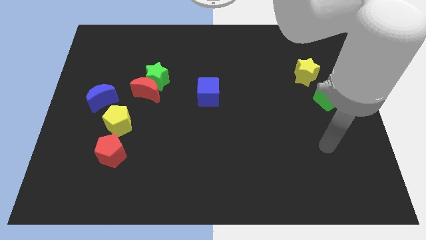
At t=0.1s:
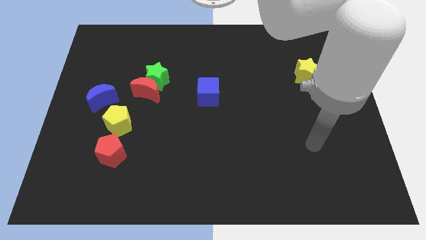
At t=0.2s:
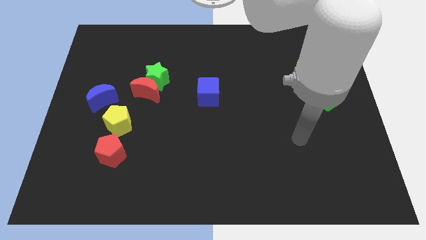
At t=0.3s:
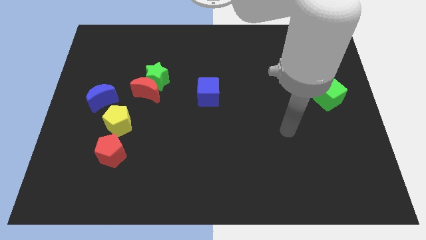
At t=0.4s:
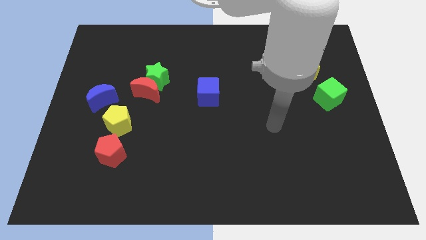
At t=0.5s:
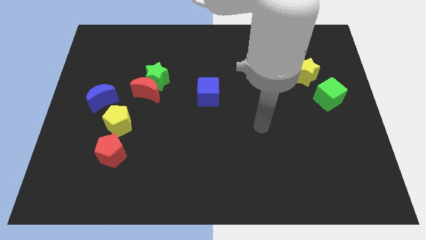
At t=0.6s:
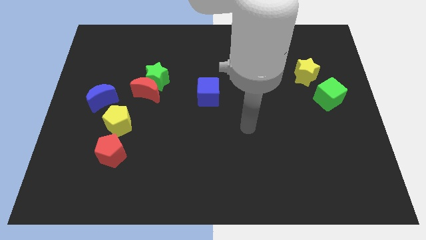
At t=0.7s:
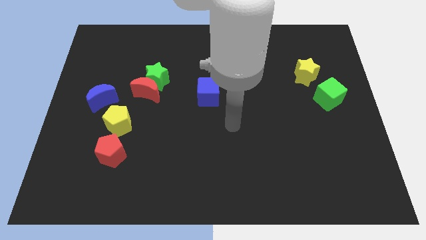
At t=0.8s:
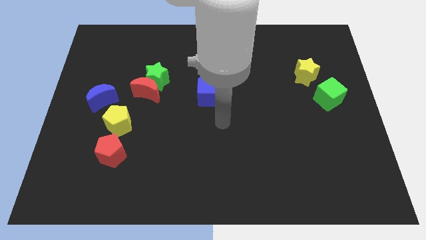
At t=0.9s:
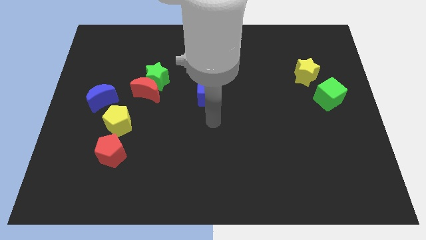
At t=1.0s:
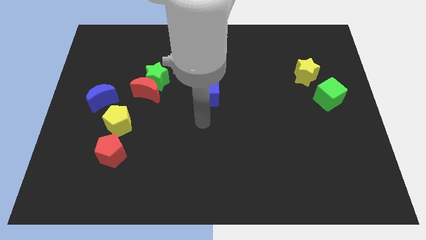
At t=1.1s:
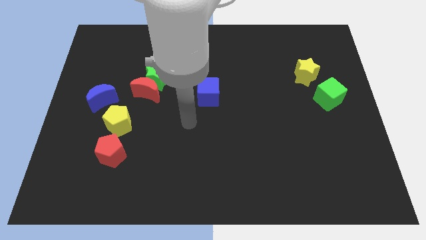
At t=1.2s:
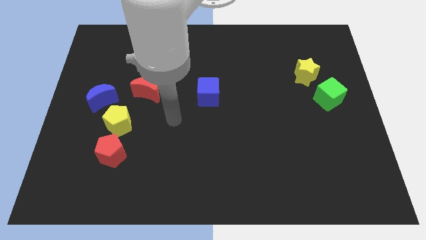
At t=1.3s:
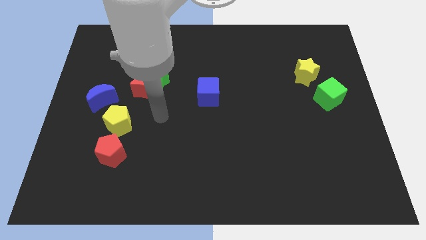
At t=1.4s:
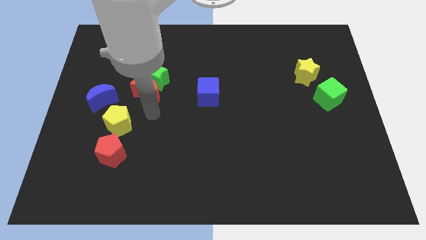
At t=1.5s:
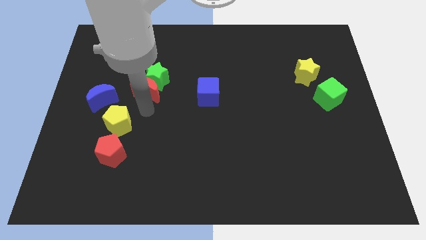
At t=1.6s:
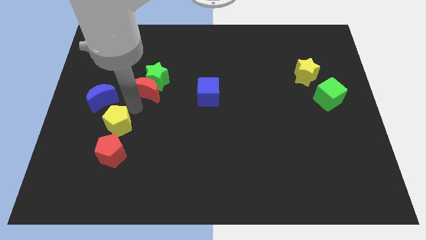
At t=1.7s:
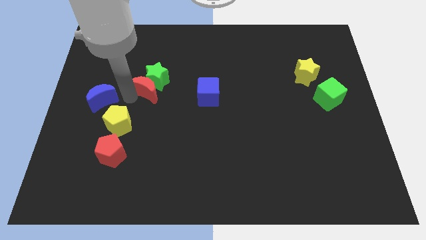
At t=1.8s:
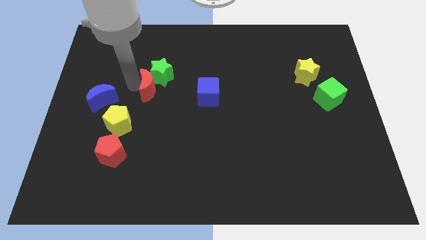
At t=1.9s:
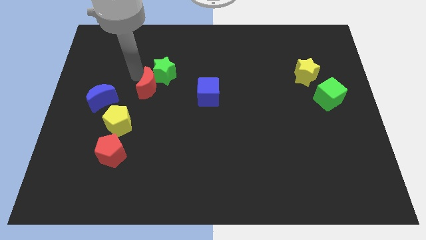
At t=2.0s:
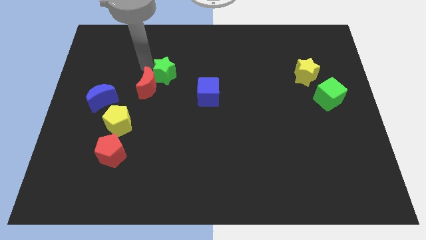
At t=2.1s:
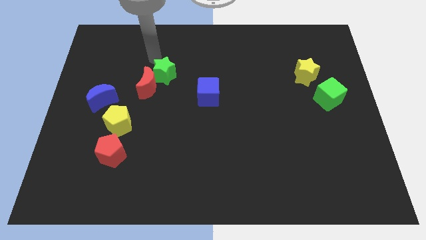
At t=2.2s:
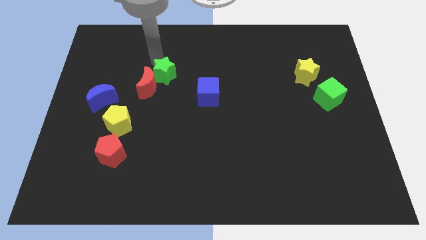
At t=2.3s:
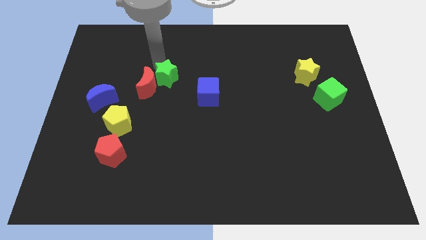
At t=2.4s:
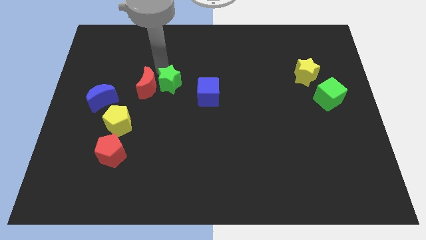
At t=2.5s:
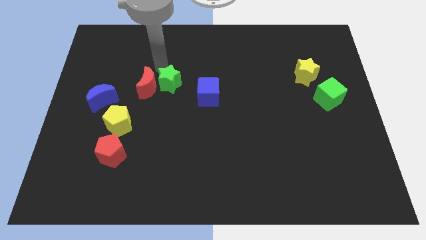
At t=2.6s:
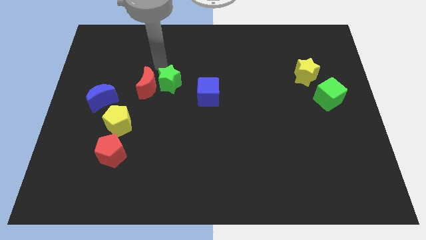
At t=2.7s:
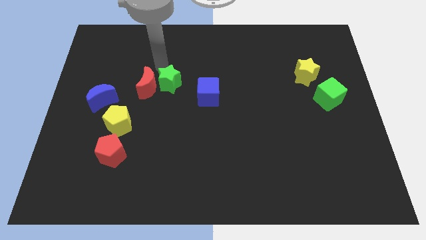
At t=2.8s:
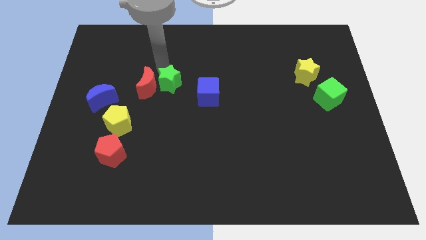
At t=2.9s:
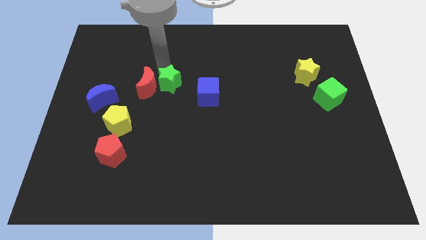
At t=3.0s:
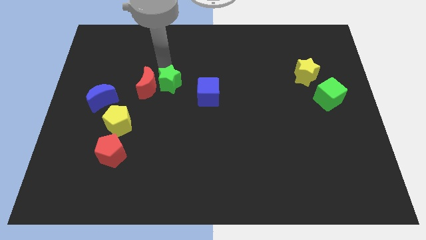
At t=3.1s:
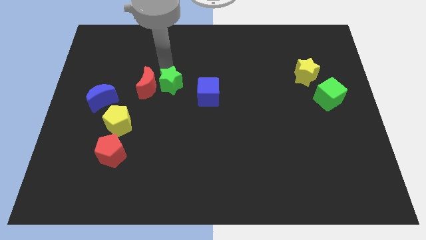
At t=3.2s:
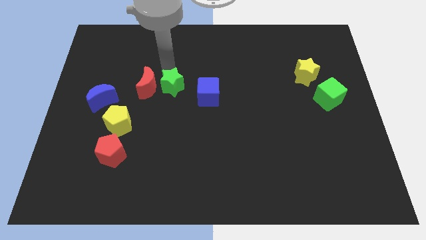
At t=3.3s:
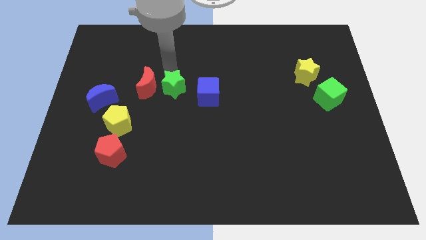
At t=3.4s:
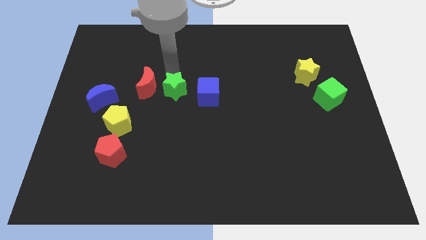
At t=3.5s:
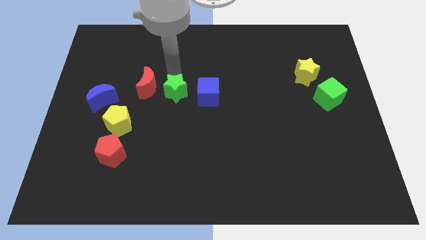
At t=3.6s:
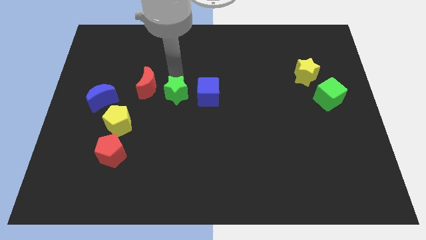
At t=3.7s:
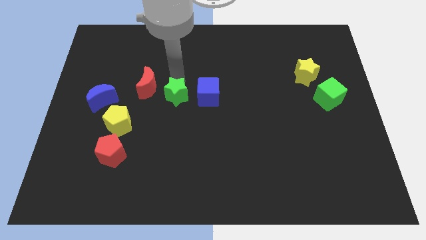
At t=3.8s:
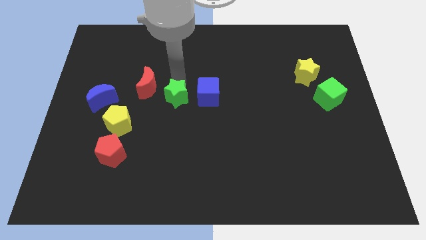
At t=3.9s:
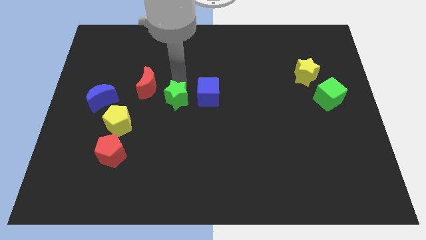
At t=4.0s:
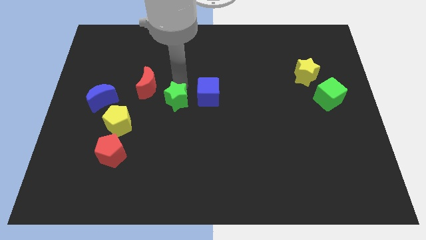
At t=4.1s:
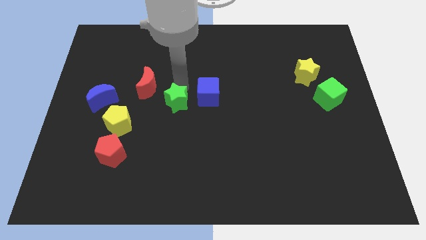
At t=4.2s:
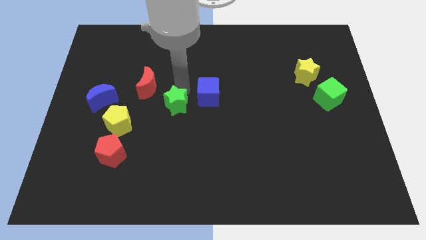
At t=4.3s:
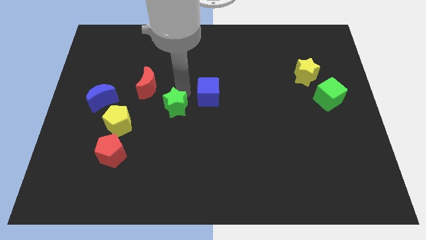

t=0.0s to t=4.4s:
push the green star a bit downwards

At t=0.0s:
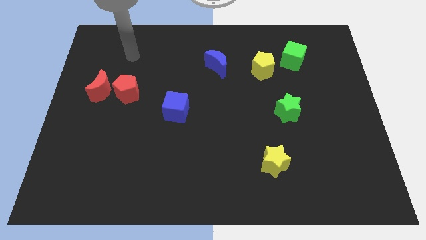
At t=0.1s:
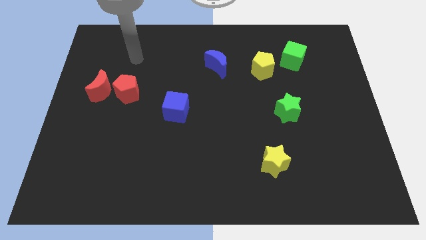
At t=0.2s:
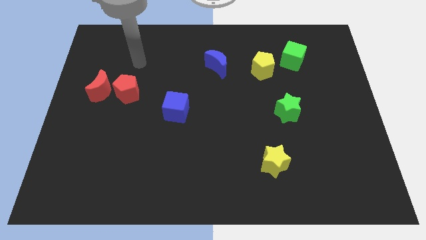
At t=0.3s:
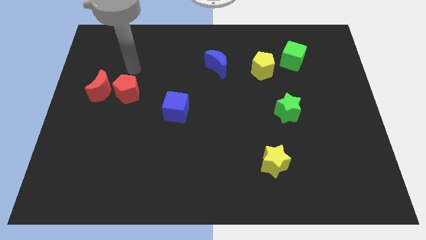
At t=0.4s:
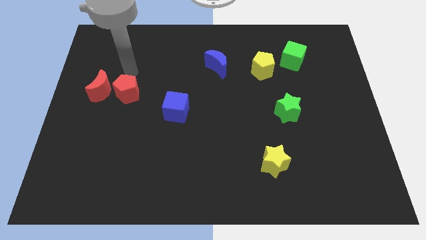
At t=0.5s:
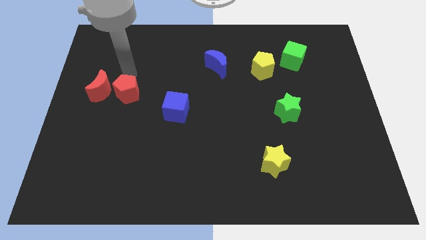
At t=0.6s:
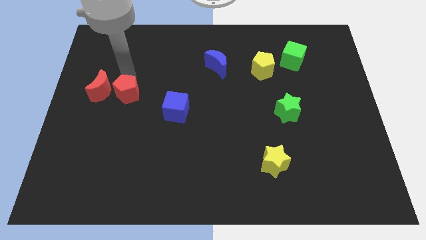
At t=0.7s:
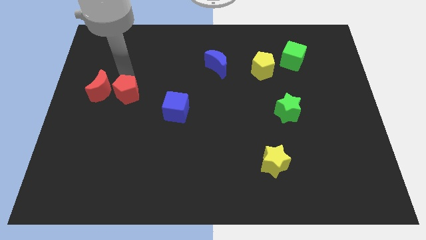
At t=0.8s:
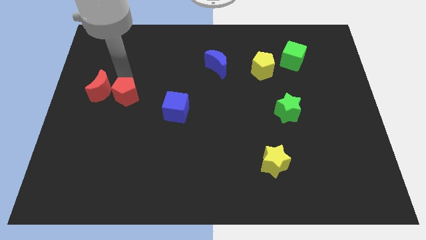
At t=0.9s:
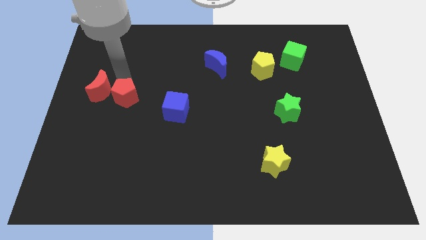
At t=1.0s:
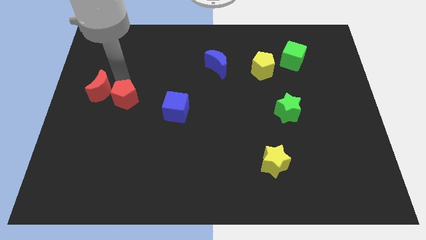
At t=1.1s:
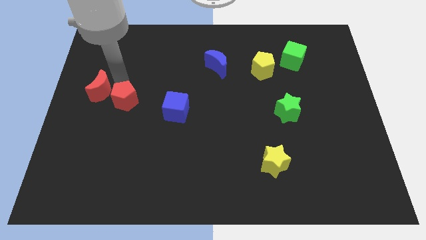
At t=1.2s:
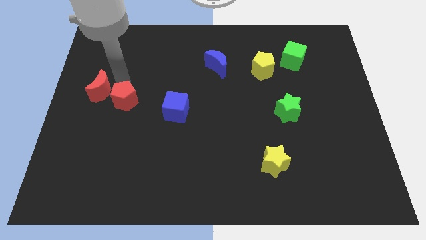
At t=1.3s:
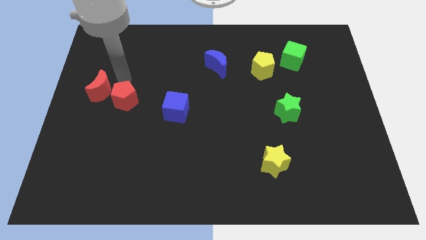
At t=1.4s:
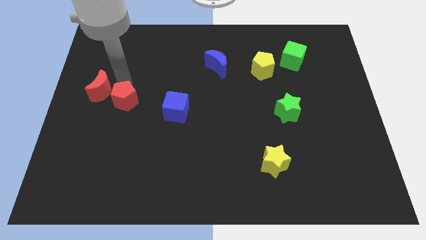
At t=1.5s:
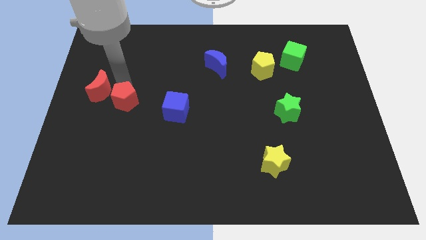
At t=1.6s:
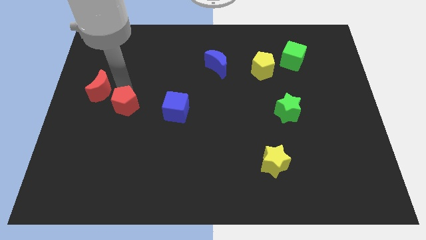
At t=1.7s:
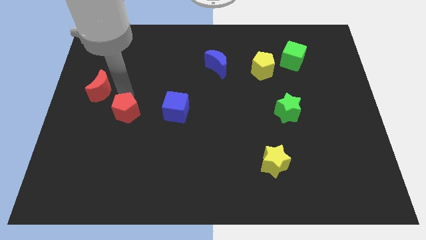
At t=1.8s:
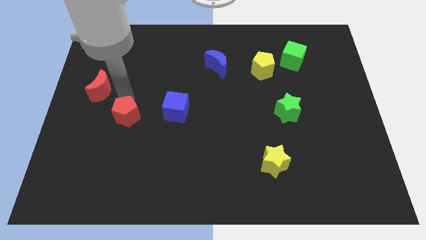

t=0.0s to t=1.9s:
move the red pentagon somewhat down

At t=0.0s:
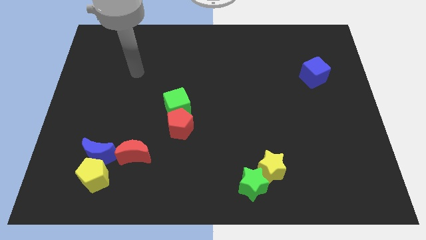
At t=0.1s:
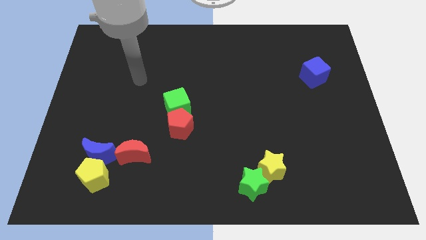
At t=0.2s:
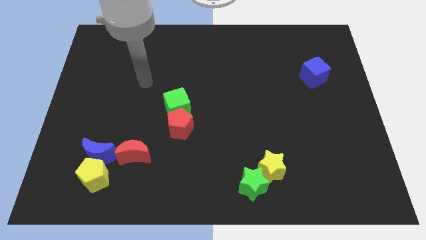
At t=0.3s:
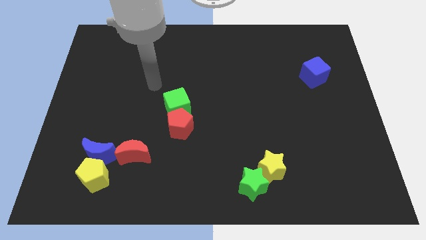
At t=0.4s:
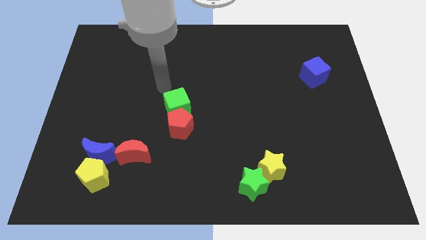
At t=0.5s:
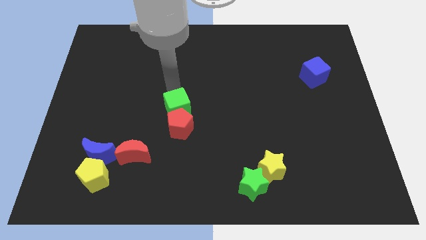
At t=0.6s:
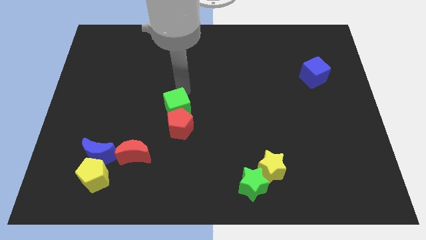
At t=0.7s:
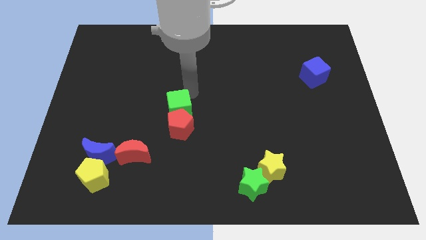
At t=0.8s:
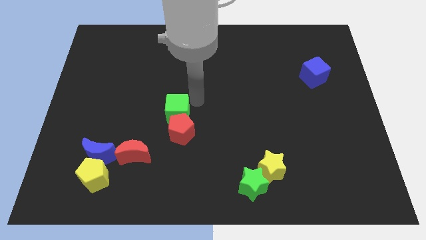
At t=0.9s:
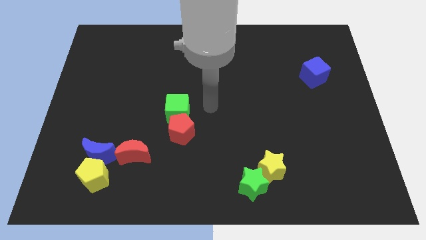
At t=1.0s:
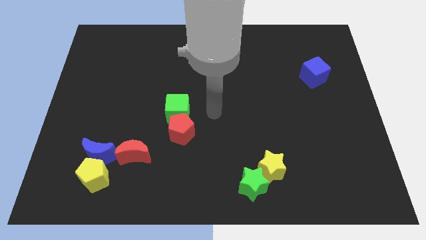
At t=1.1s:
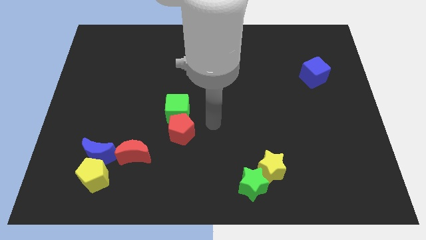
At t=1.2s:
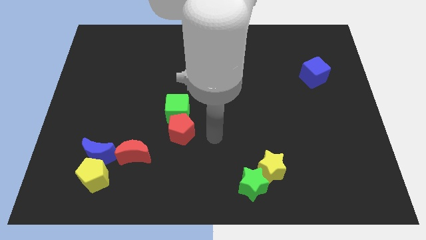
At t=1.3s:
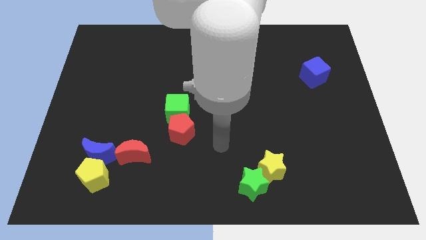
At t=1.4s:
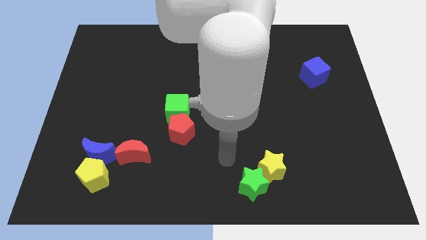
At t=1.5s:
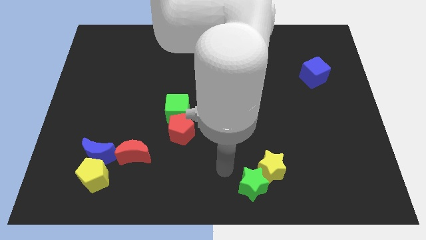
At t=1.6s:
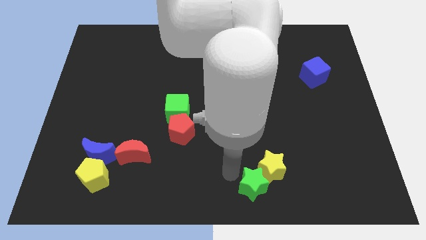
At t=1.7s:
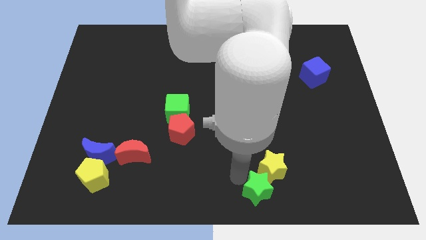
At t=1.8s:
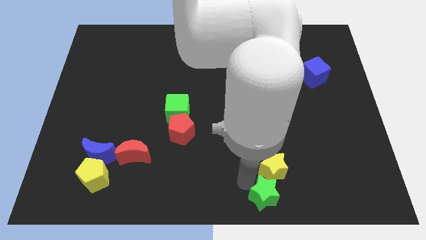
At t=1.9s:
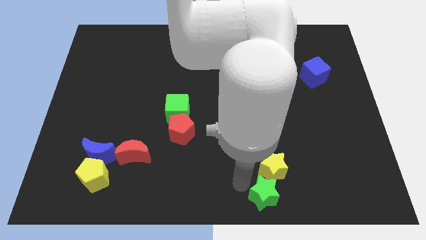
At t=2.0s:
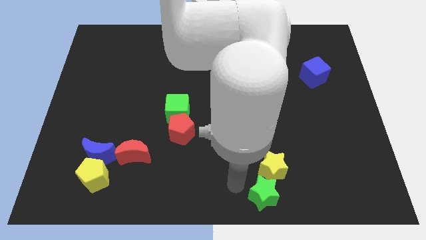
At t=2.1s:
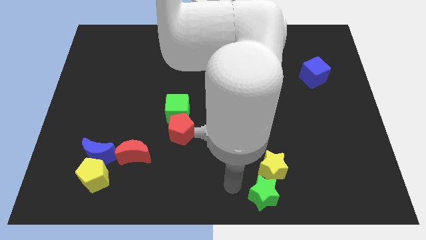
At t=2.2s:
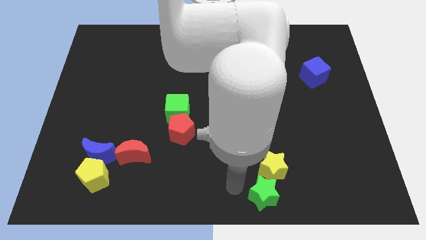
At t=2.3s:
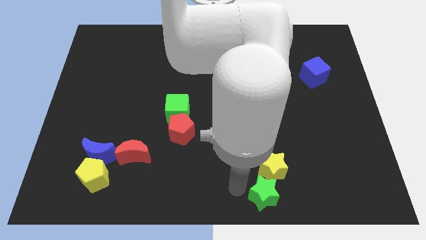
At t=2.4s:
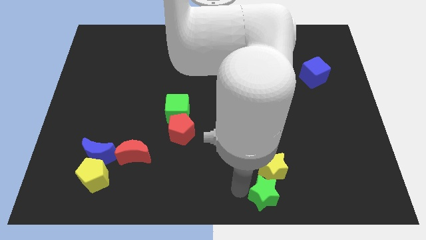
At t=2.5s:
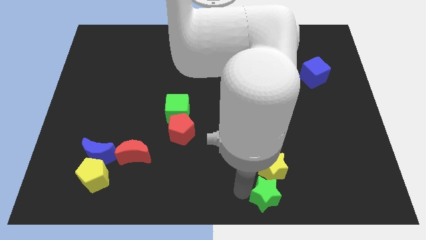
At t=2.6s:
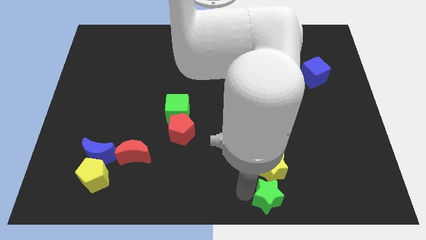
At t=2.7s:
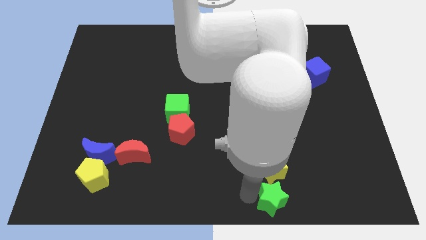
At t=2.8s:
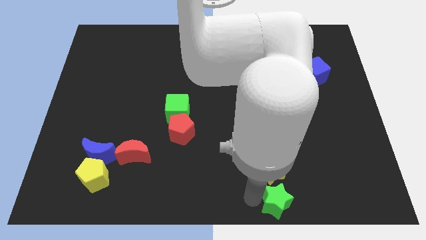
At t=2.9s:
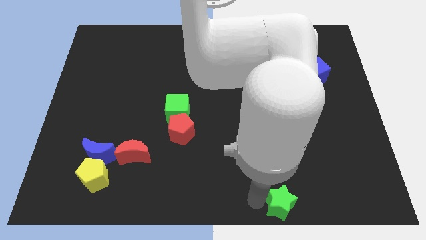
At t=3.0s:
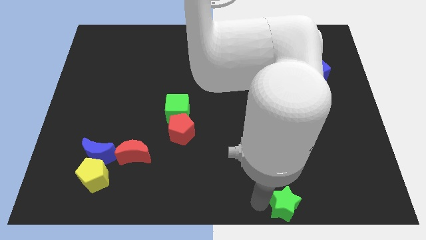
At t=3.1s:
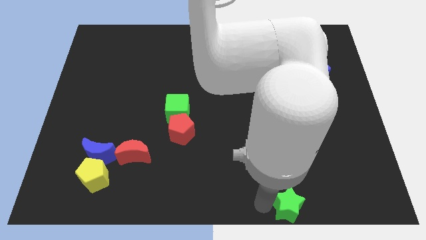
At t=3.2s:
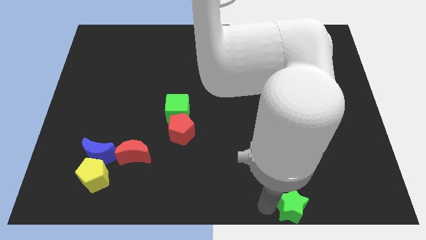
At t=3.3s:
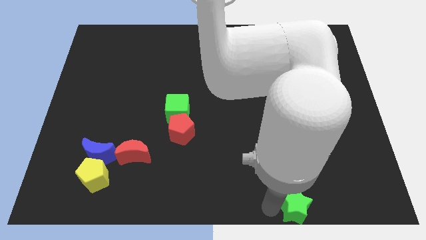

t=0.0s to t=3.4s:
push the green star right a little
